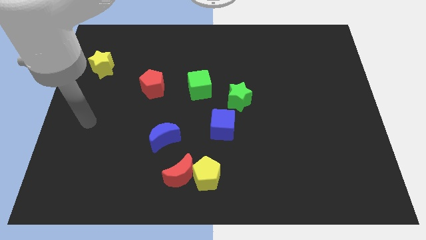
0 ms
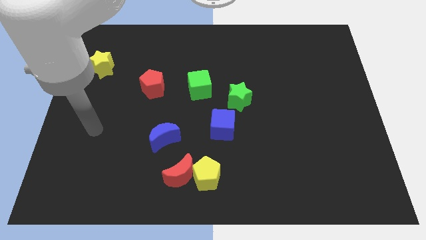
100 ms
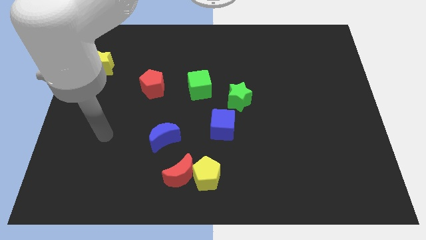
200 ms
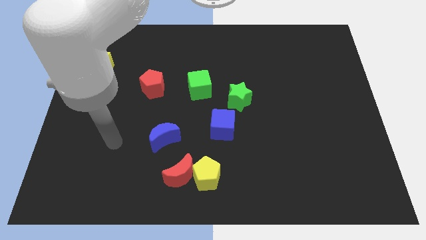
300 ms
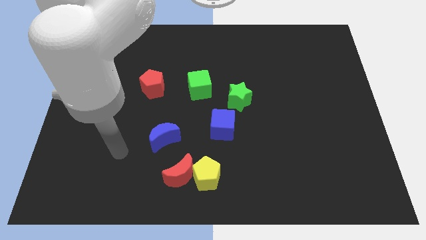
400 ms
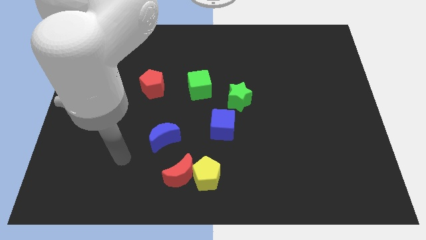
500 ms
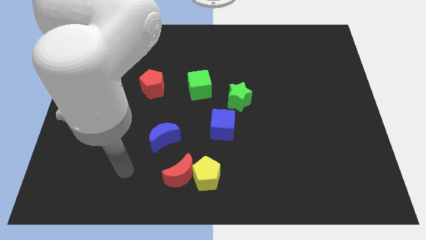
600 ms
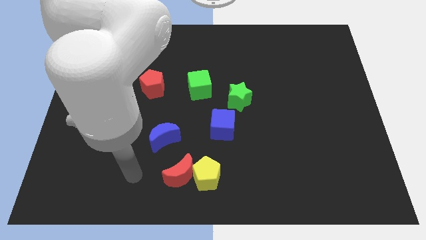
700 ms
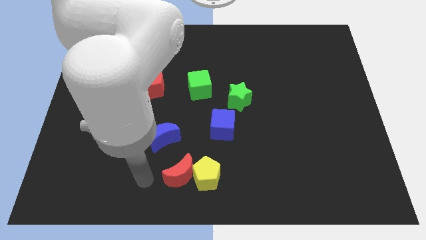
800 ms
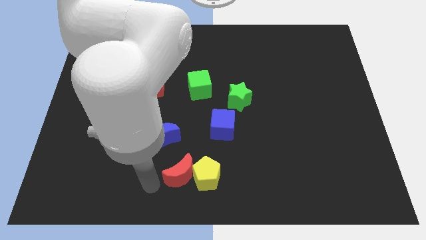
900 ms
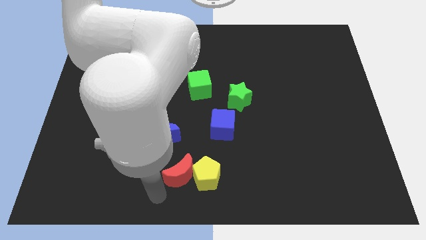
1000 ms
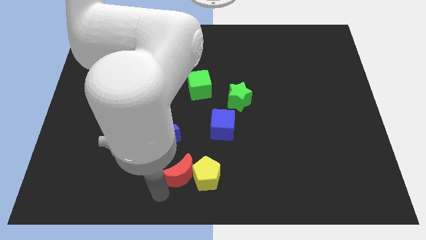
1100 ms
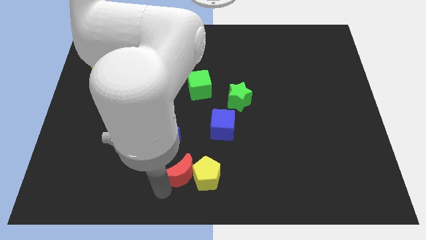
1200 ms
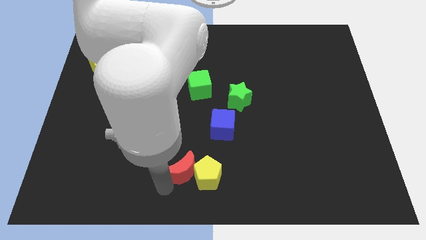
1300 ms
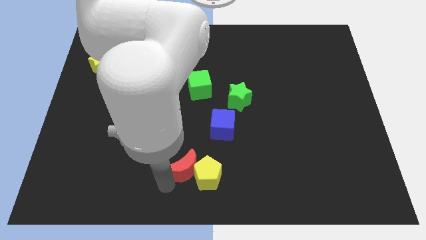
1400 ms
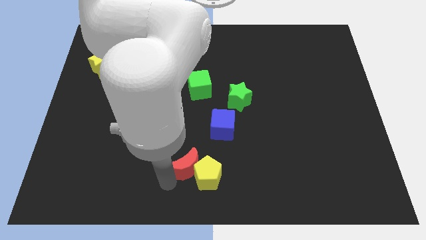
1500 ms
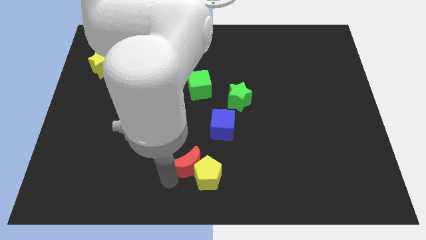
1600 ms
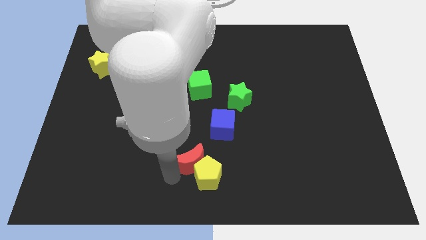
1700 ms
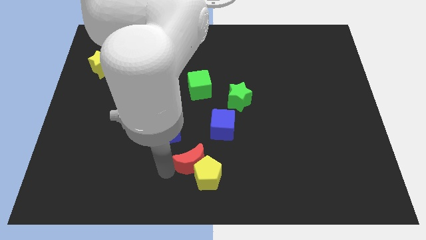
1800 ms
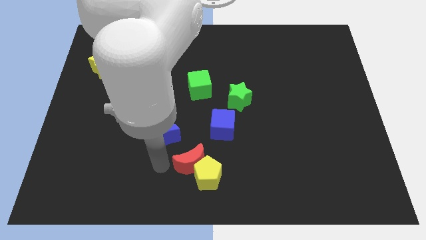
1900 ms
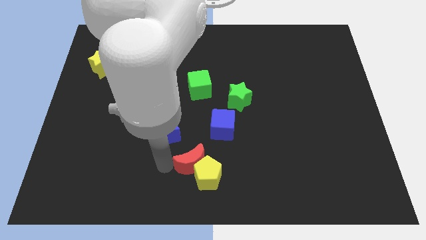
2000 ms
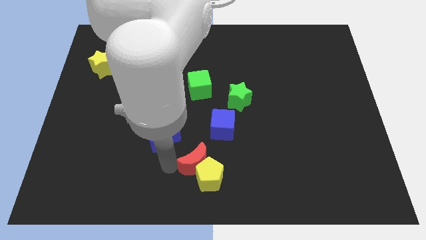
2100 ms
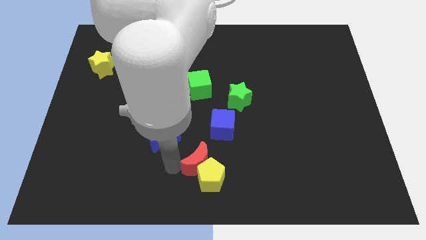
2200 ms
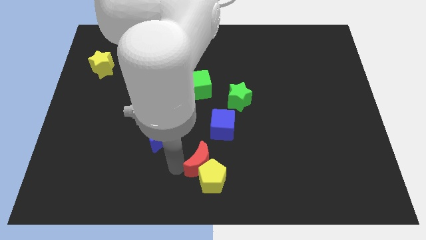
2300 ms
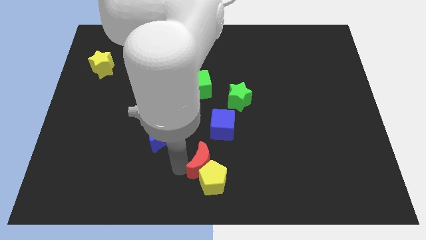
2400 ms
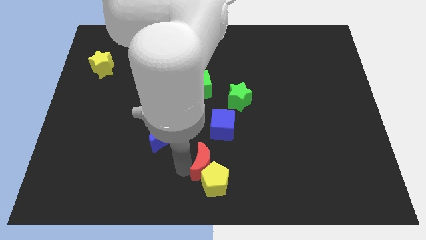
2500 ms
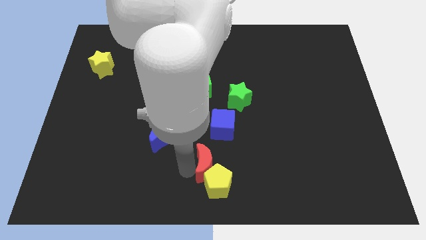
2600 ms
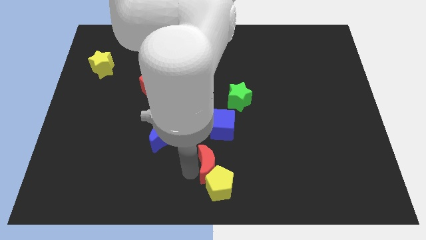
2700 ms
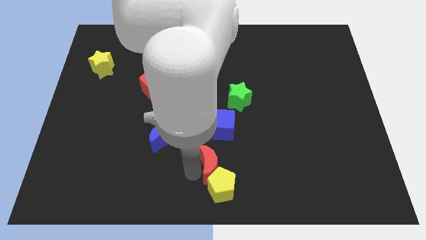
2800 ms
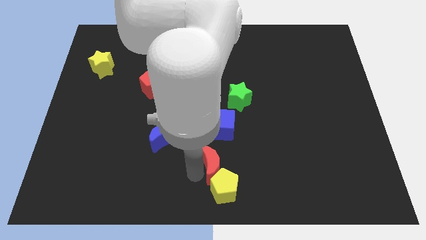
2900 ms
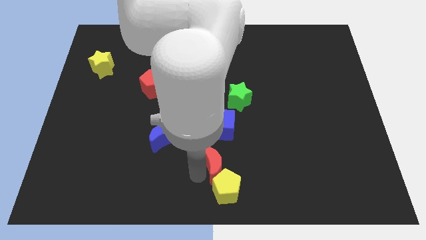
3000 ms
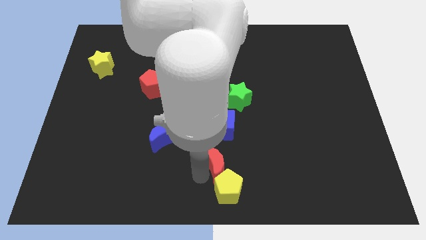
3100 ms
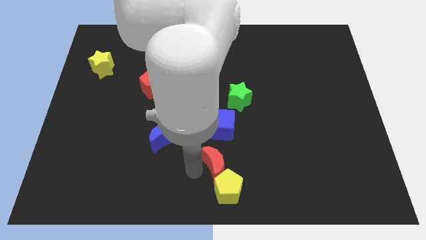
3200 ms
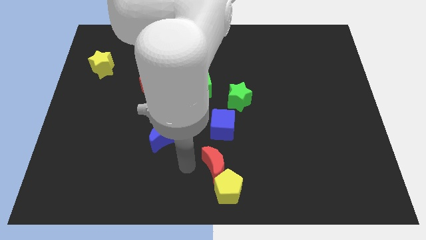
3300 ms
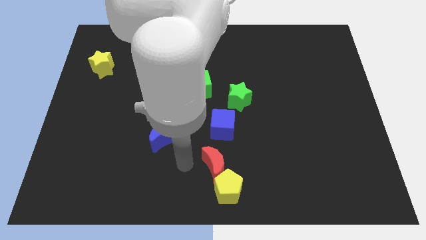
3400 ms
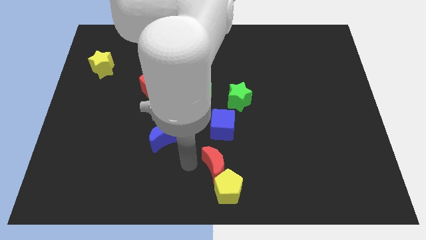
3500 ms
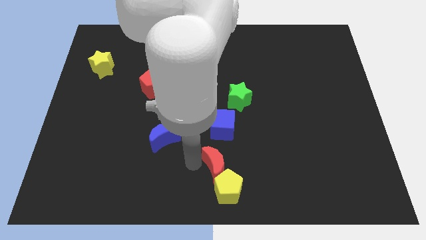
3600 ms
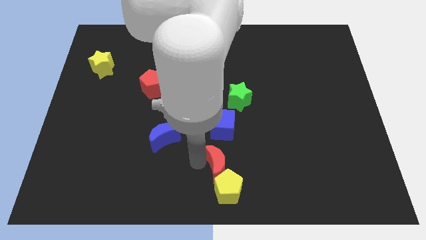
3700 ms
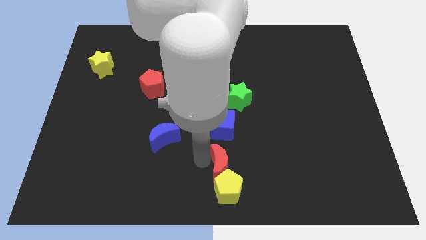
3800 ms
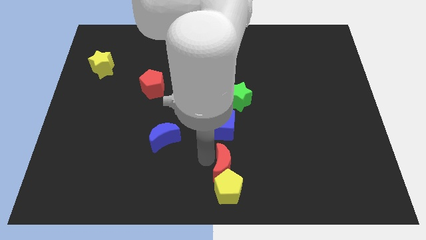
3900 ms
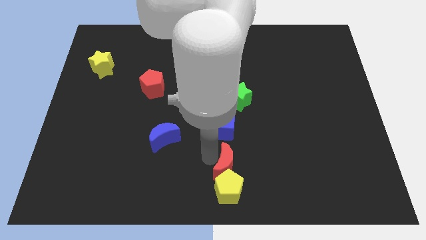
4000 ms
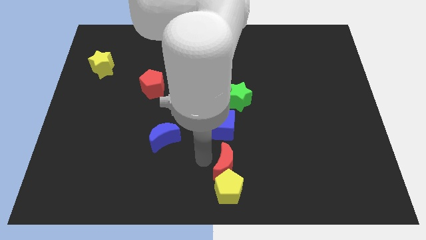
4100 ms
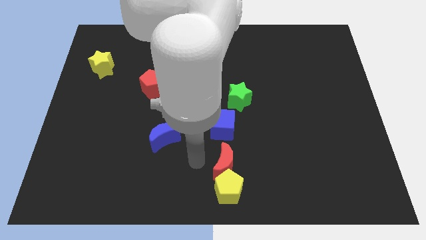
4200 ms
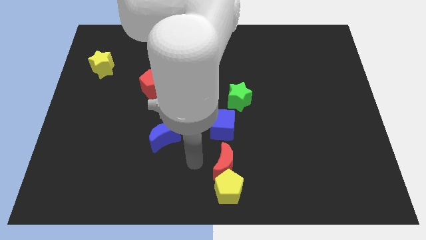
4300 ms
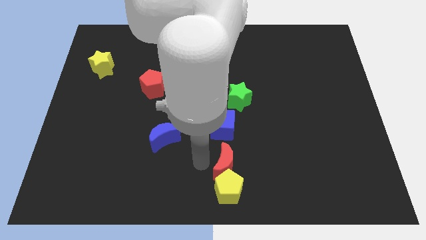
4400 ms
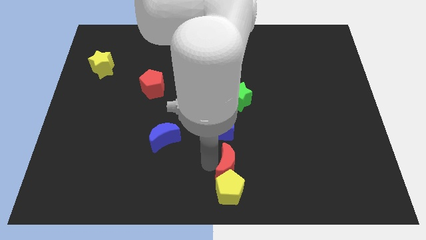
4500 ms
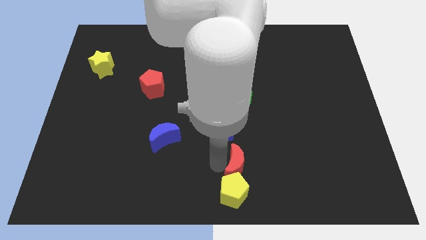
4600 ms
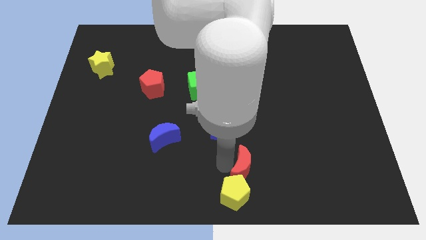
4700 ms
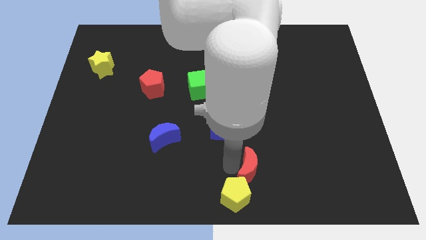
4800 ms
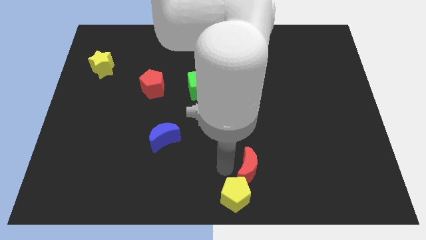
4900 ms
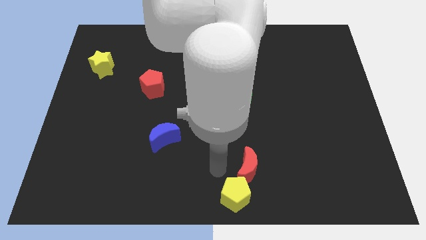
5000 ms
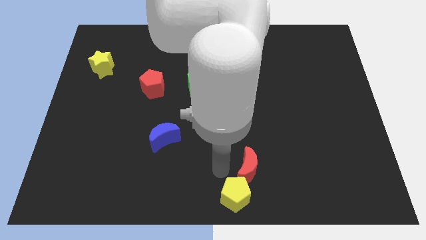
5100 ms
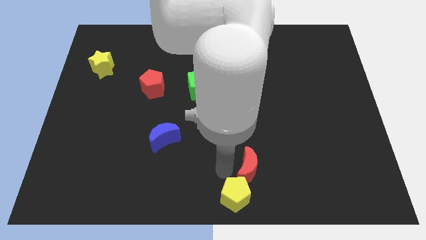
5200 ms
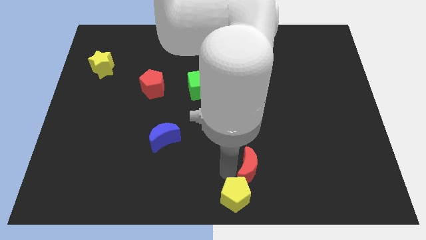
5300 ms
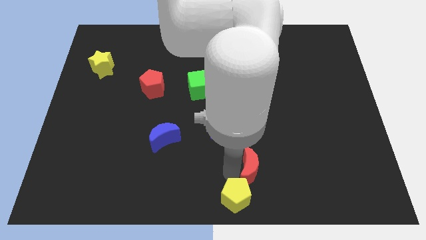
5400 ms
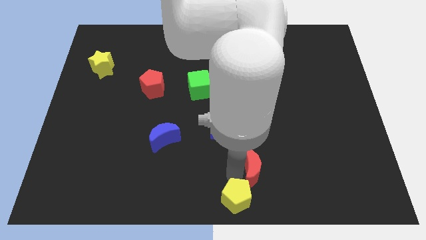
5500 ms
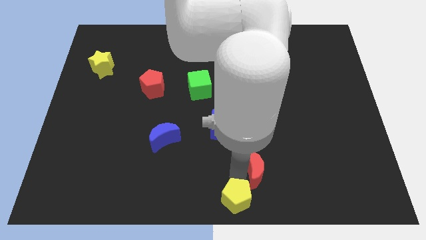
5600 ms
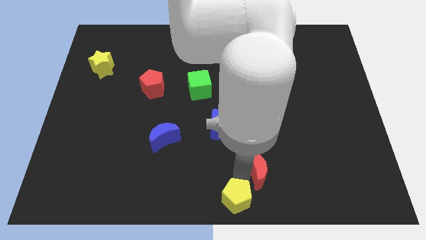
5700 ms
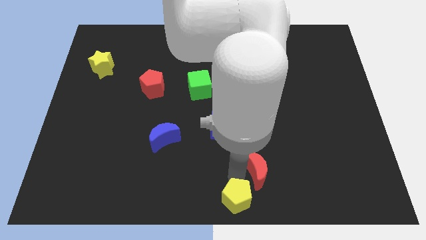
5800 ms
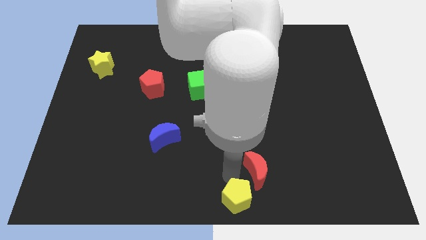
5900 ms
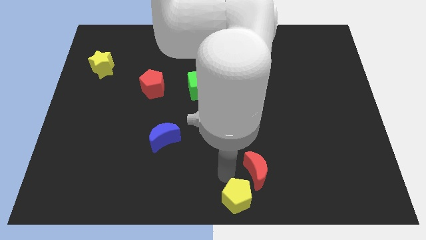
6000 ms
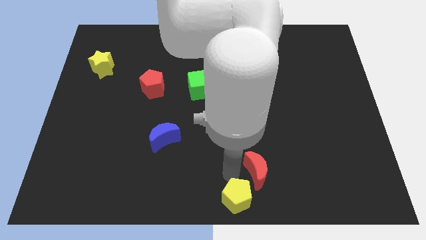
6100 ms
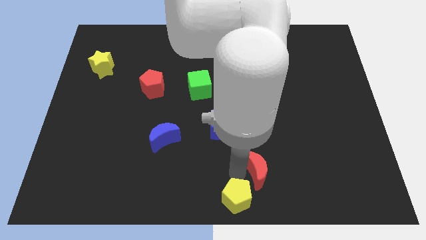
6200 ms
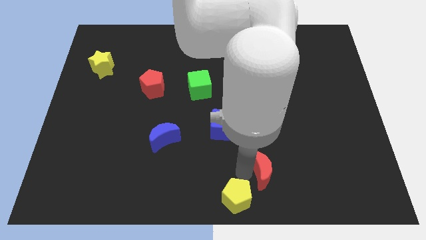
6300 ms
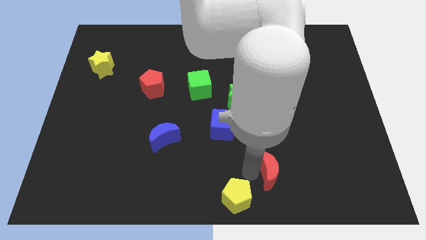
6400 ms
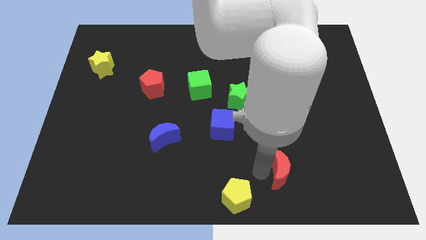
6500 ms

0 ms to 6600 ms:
slide the red moon right

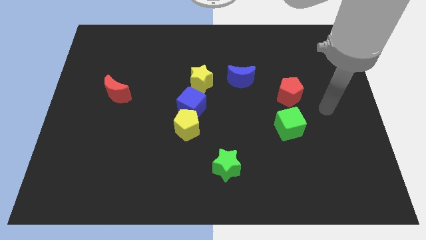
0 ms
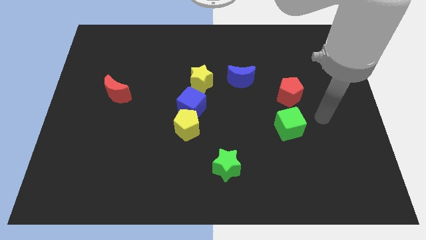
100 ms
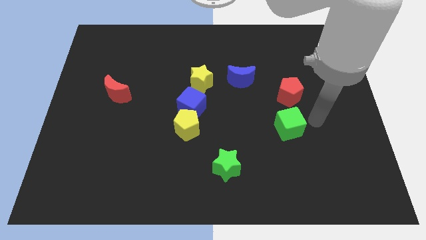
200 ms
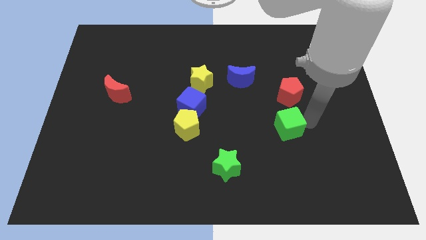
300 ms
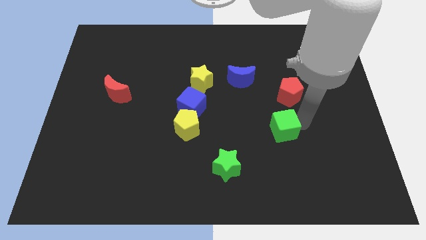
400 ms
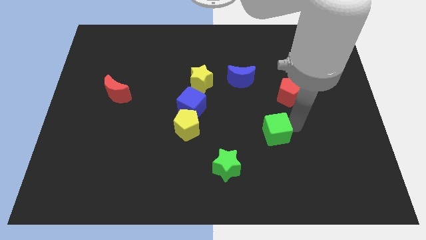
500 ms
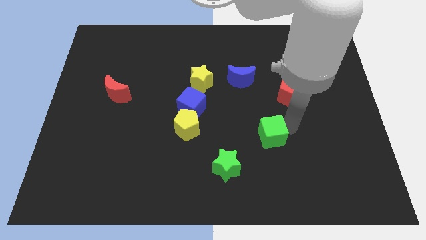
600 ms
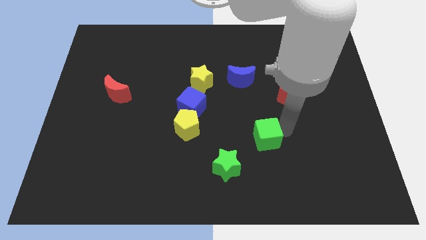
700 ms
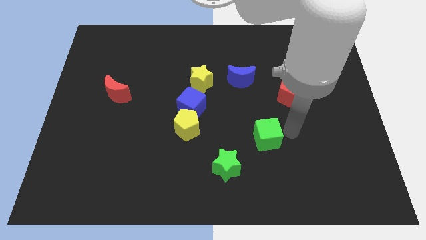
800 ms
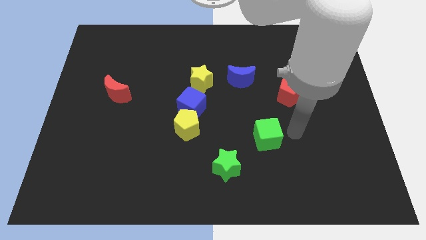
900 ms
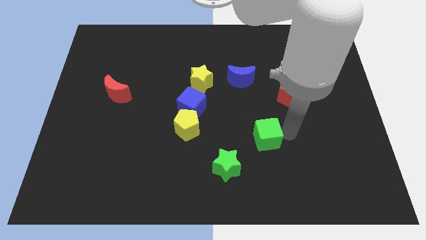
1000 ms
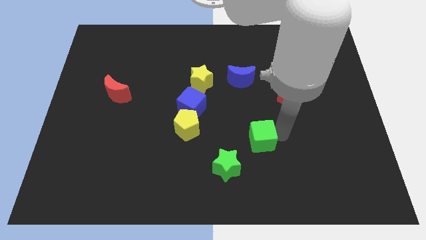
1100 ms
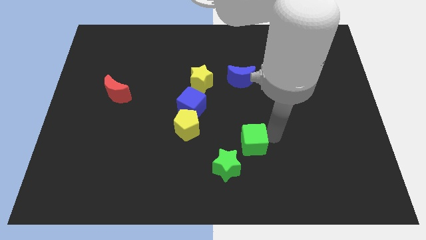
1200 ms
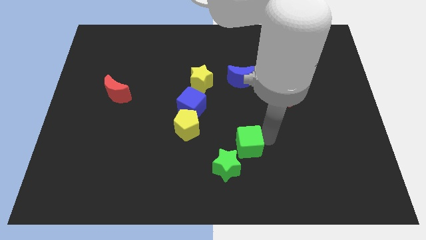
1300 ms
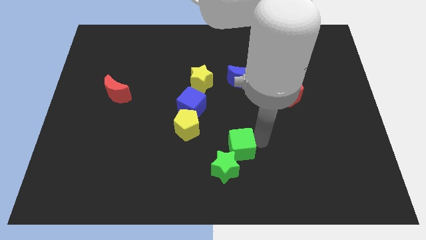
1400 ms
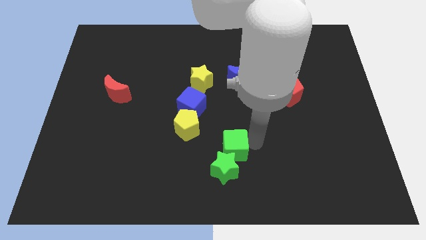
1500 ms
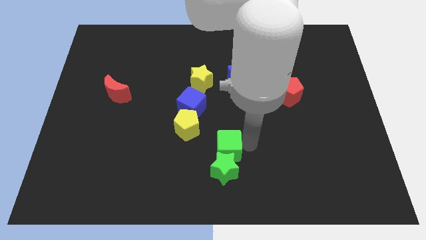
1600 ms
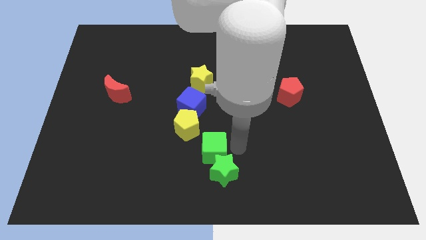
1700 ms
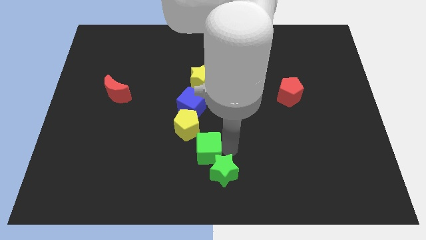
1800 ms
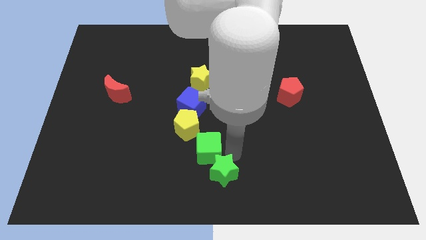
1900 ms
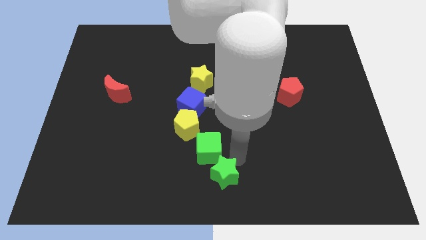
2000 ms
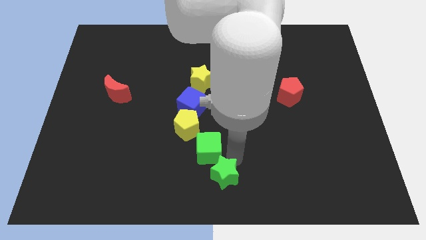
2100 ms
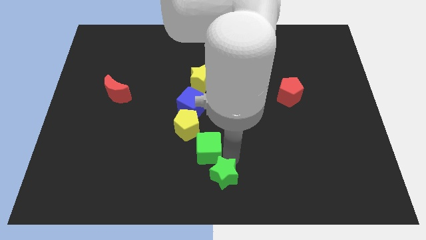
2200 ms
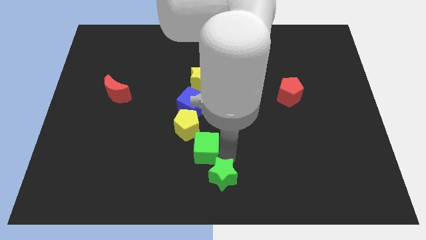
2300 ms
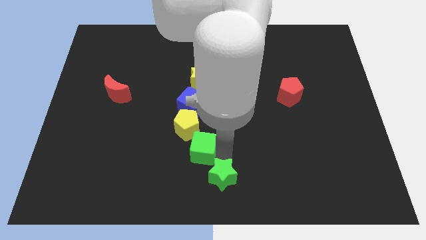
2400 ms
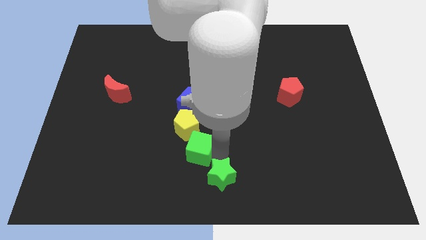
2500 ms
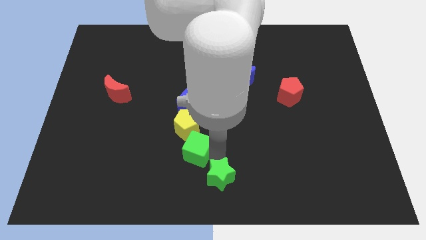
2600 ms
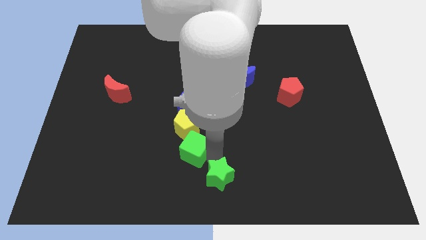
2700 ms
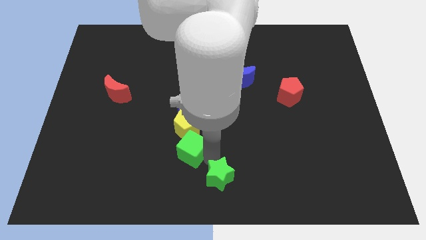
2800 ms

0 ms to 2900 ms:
move the green cube left
